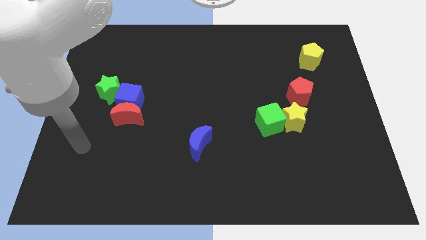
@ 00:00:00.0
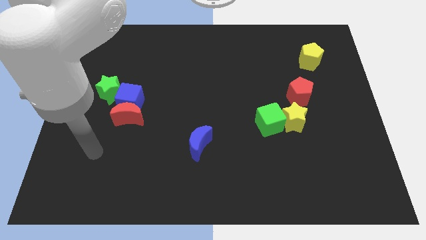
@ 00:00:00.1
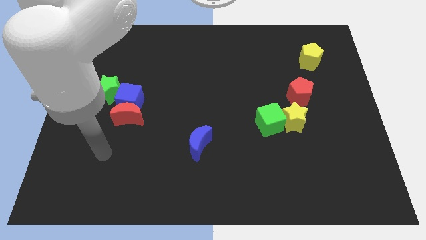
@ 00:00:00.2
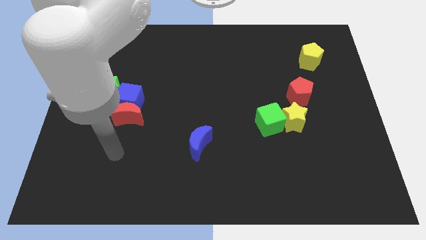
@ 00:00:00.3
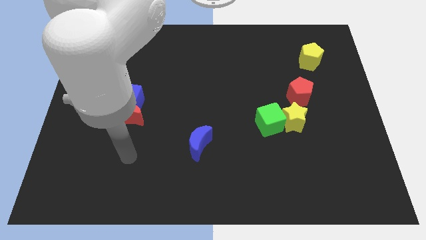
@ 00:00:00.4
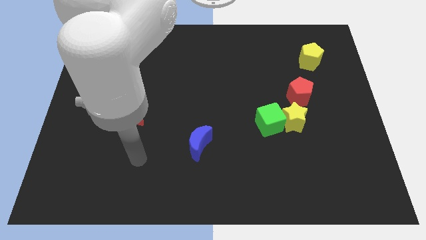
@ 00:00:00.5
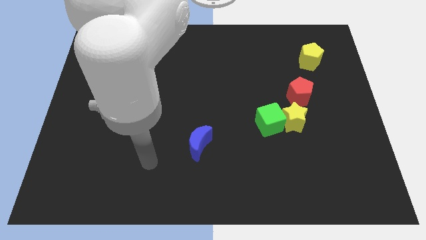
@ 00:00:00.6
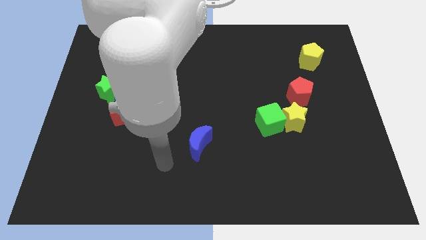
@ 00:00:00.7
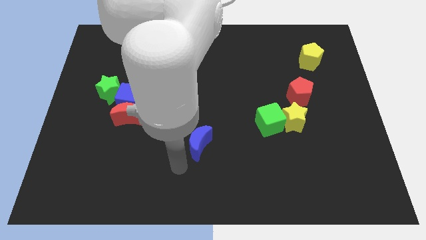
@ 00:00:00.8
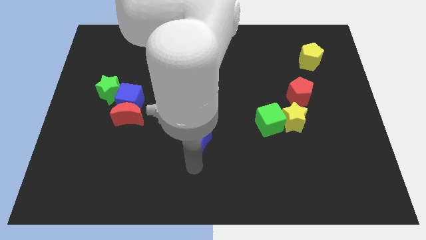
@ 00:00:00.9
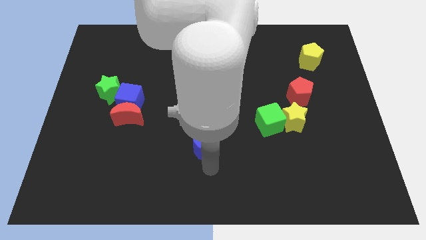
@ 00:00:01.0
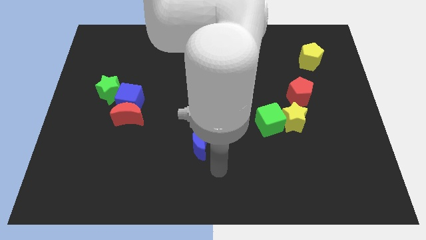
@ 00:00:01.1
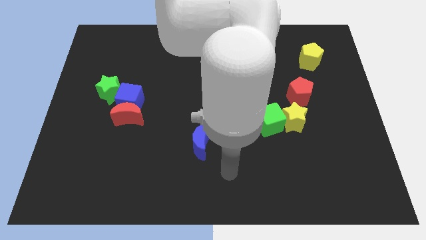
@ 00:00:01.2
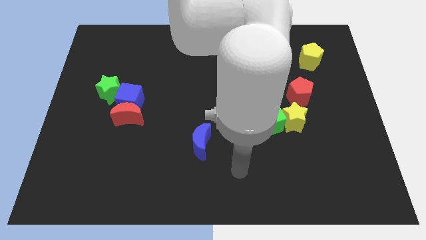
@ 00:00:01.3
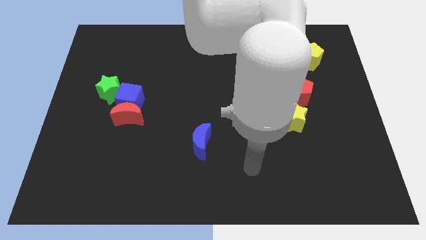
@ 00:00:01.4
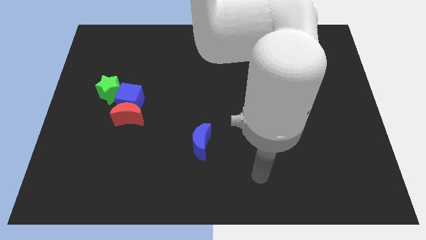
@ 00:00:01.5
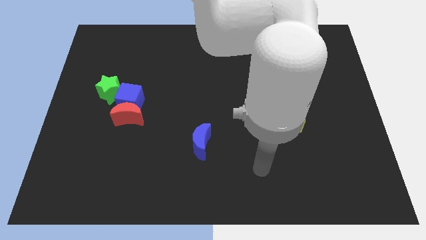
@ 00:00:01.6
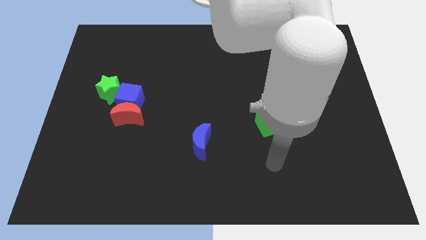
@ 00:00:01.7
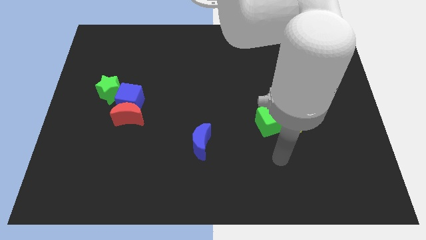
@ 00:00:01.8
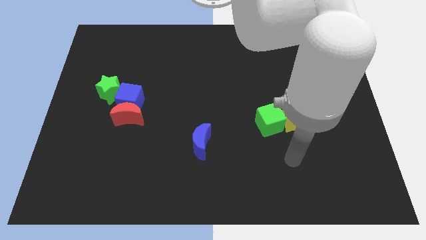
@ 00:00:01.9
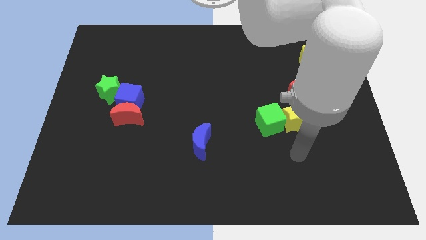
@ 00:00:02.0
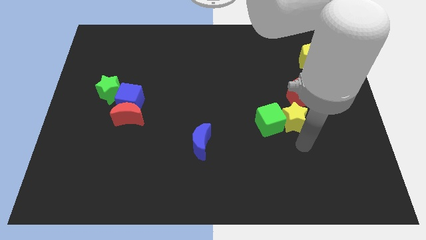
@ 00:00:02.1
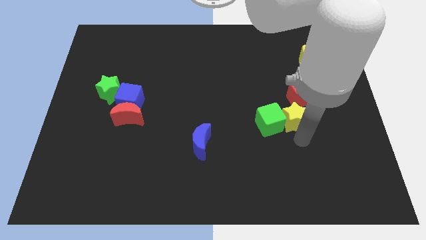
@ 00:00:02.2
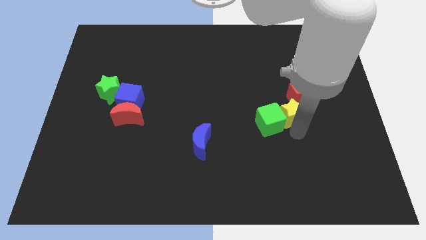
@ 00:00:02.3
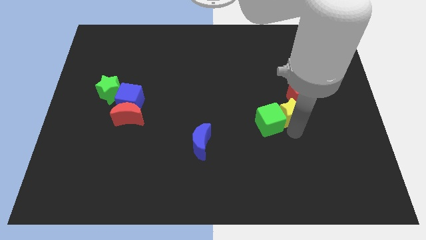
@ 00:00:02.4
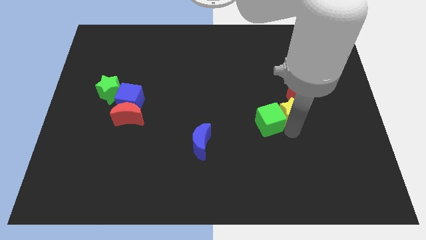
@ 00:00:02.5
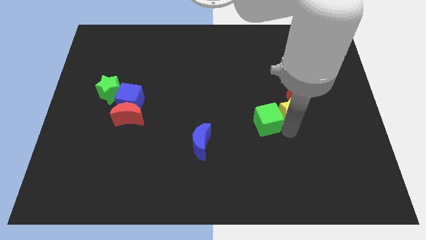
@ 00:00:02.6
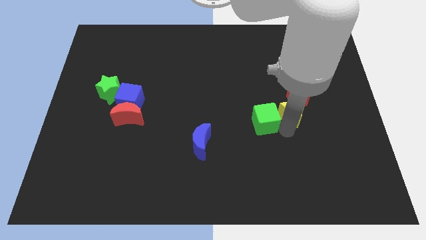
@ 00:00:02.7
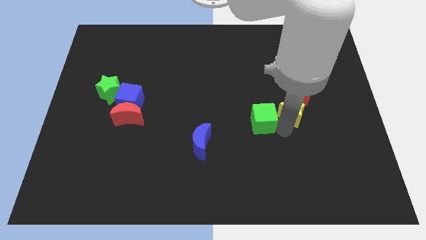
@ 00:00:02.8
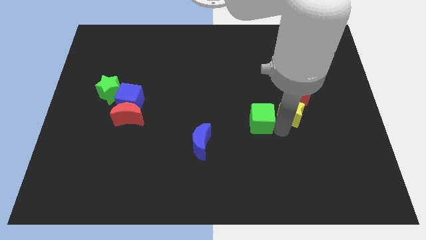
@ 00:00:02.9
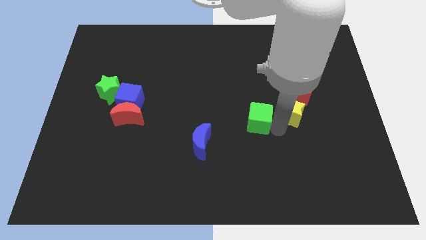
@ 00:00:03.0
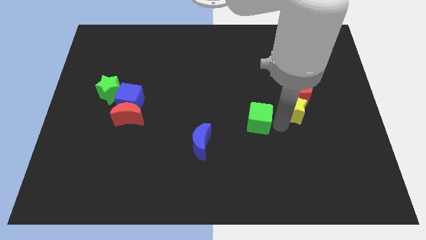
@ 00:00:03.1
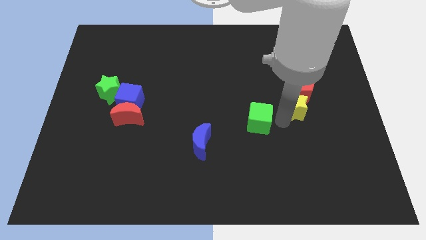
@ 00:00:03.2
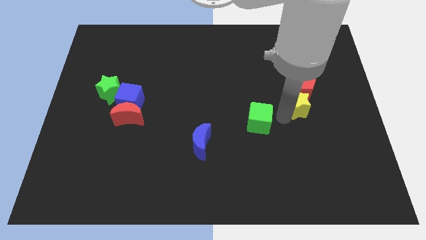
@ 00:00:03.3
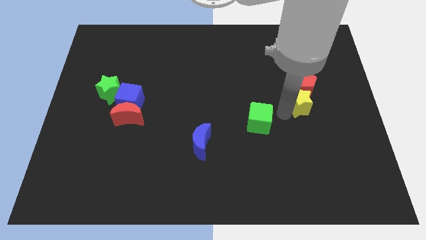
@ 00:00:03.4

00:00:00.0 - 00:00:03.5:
move the green cube away from the yellow star

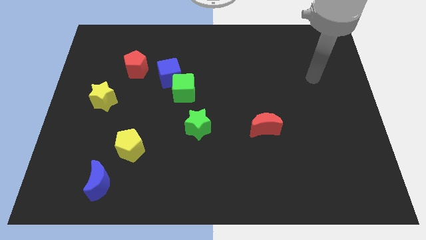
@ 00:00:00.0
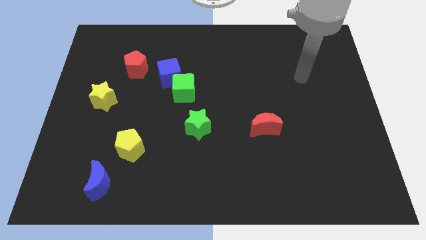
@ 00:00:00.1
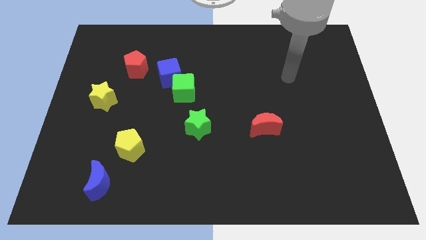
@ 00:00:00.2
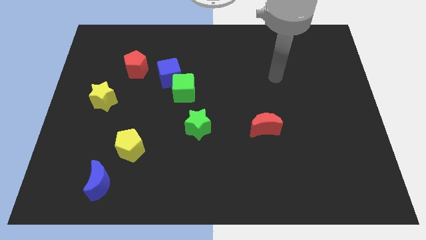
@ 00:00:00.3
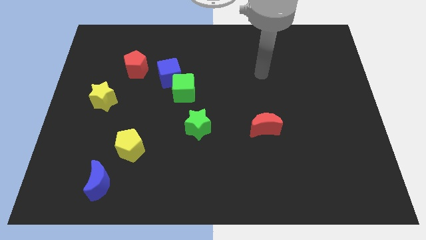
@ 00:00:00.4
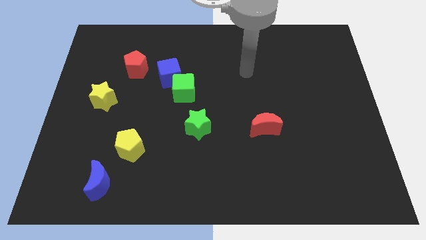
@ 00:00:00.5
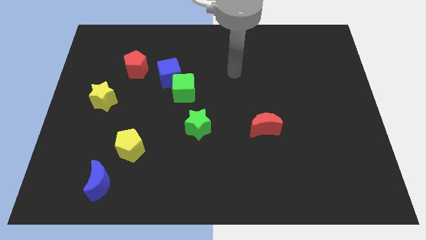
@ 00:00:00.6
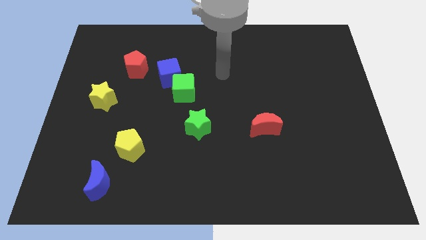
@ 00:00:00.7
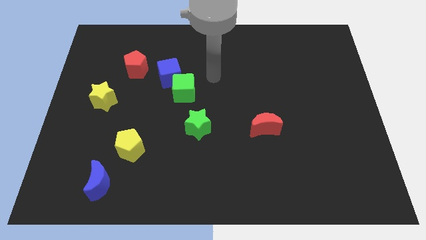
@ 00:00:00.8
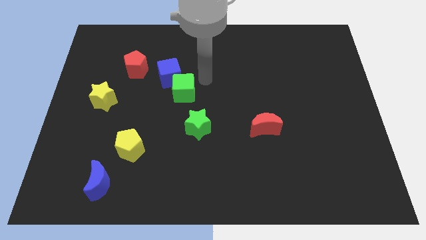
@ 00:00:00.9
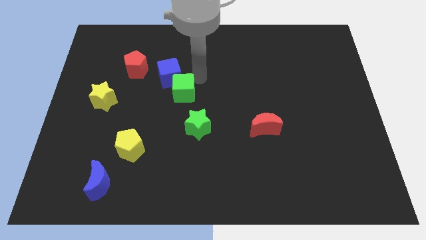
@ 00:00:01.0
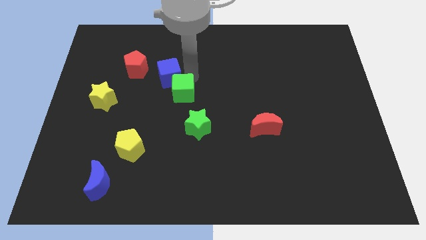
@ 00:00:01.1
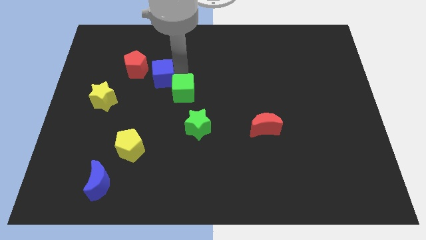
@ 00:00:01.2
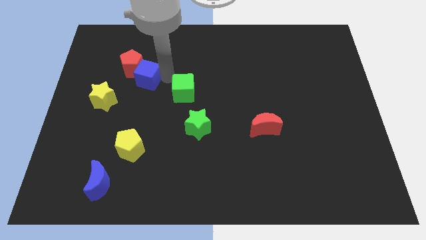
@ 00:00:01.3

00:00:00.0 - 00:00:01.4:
pull the green cube apart from the blue cube

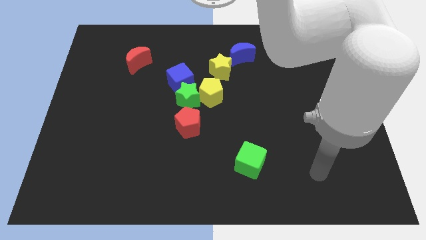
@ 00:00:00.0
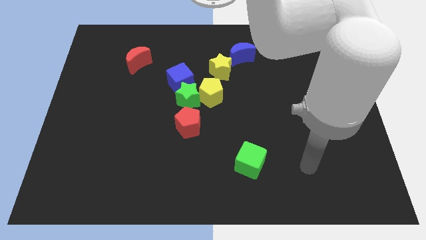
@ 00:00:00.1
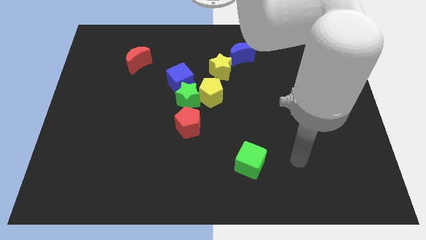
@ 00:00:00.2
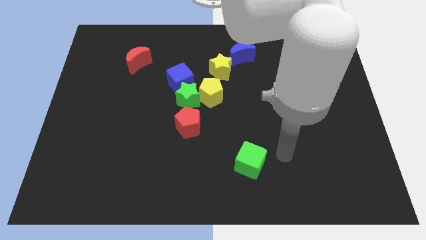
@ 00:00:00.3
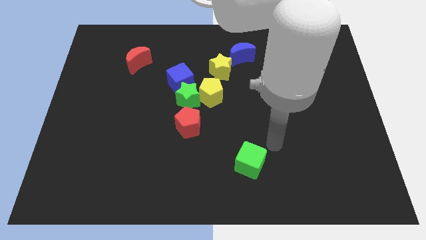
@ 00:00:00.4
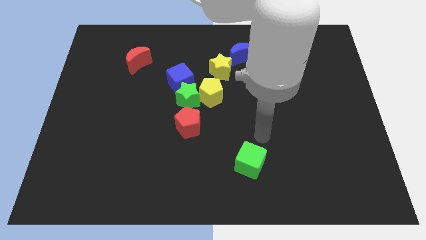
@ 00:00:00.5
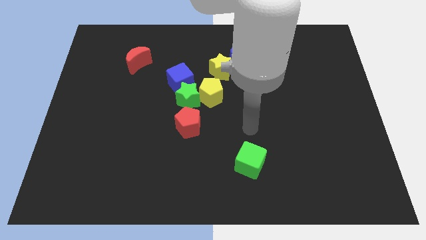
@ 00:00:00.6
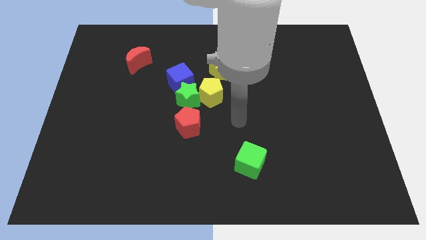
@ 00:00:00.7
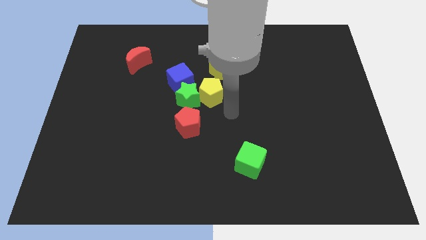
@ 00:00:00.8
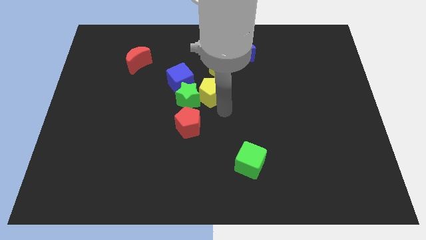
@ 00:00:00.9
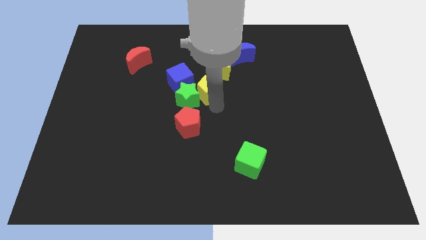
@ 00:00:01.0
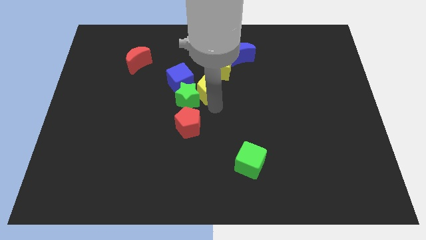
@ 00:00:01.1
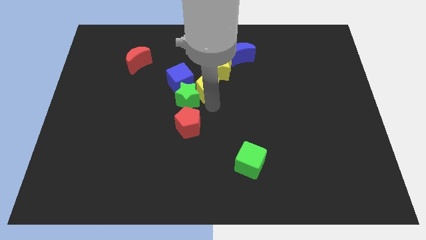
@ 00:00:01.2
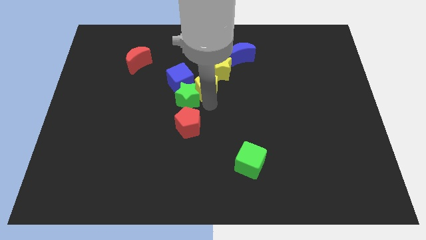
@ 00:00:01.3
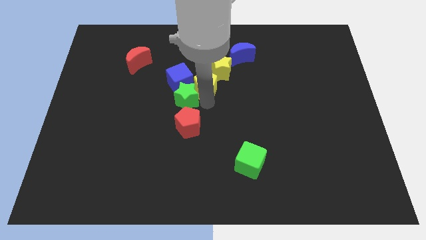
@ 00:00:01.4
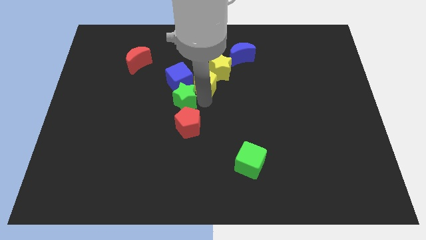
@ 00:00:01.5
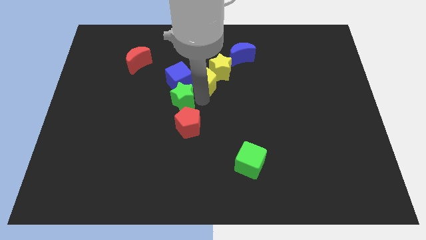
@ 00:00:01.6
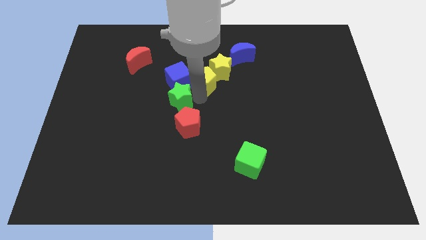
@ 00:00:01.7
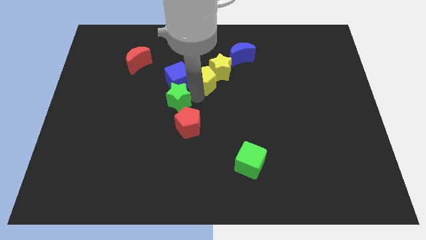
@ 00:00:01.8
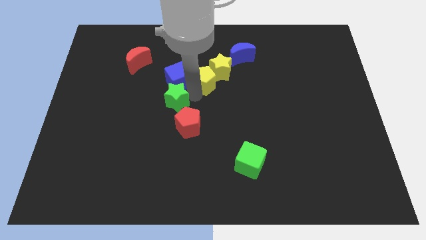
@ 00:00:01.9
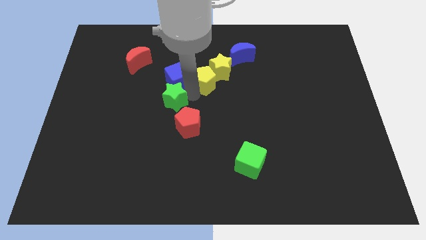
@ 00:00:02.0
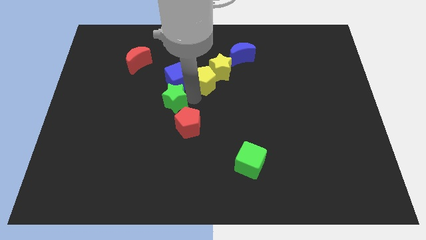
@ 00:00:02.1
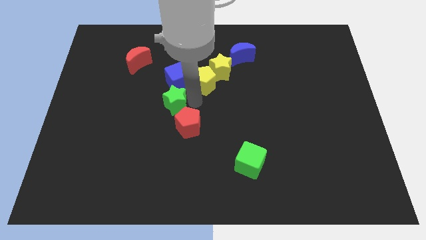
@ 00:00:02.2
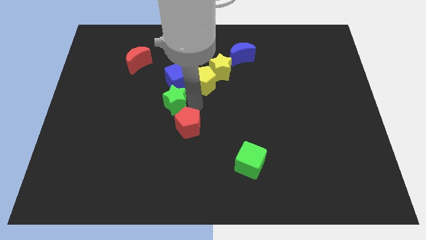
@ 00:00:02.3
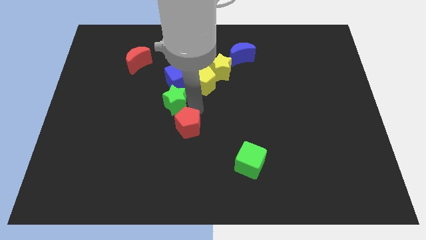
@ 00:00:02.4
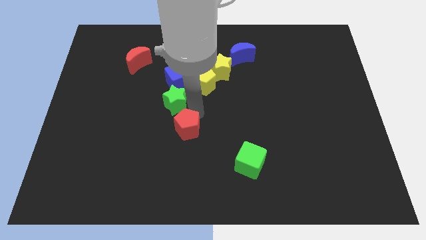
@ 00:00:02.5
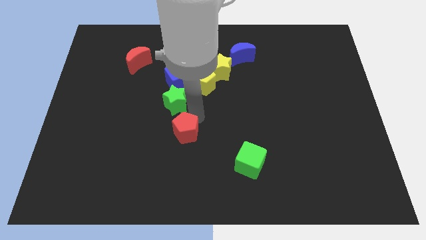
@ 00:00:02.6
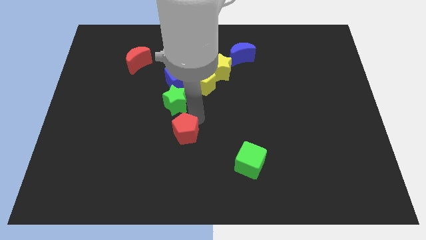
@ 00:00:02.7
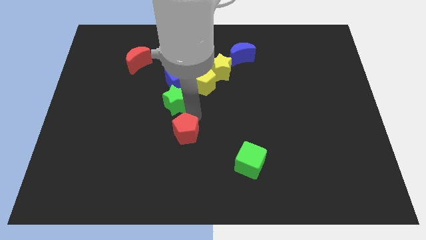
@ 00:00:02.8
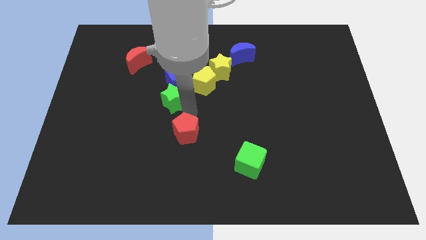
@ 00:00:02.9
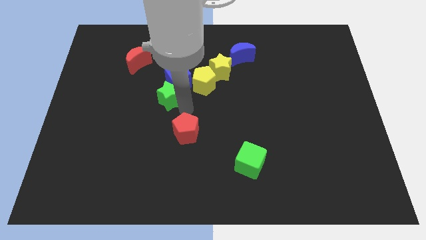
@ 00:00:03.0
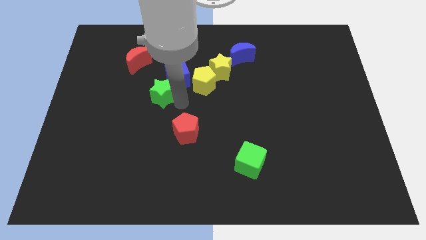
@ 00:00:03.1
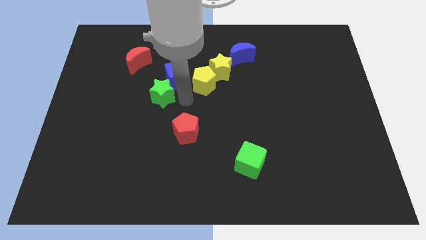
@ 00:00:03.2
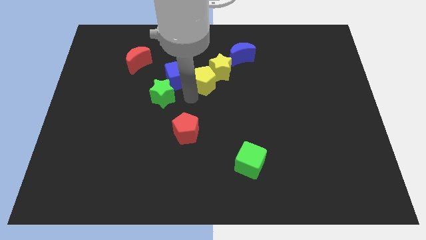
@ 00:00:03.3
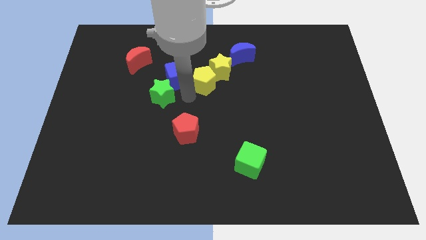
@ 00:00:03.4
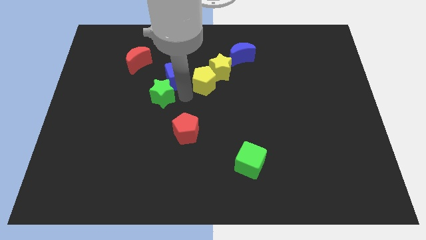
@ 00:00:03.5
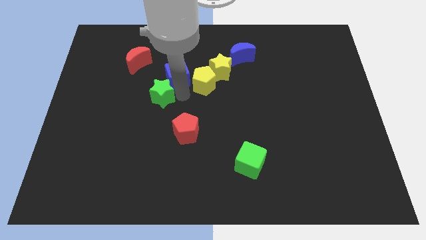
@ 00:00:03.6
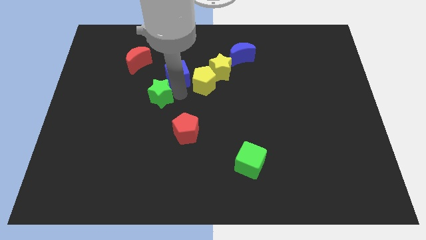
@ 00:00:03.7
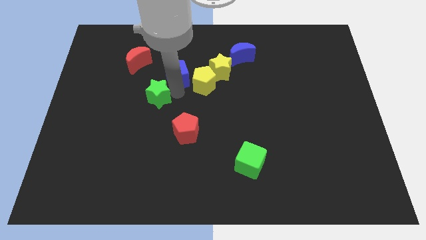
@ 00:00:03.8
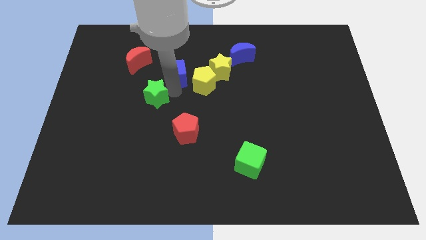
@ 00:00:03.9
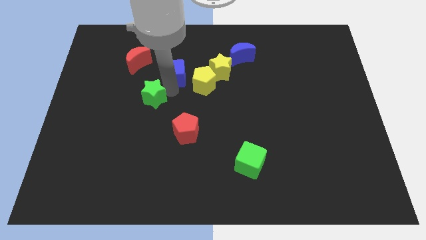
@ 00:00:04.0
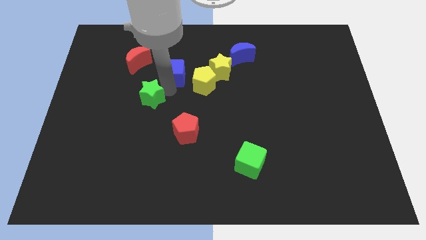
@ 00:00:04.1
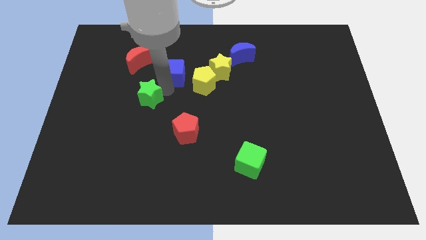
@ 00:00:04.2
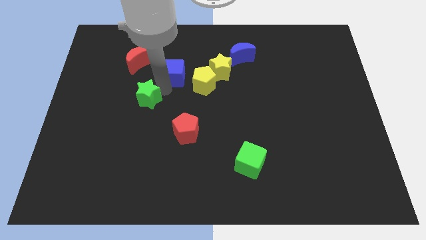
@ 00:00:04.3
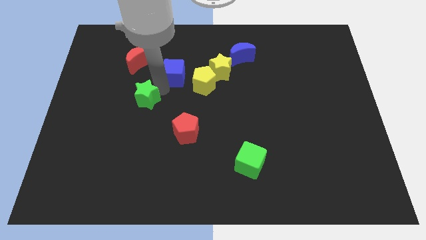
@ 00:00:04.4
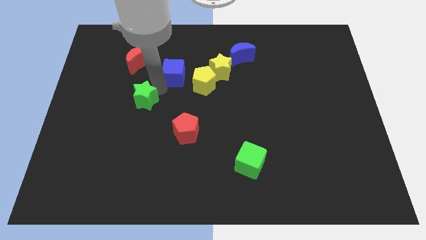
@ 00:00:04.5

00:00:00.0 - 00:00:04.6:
pull the green star apart from the group of blocks
